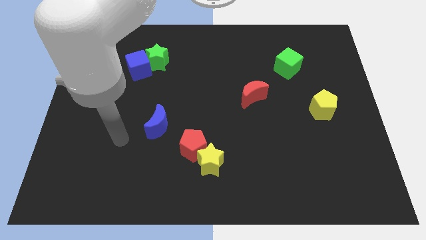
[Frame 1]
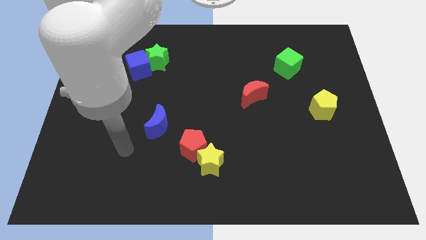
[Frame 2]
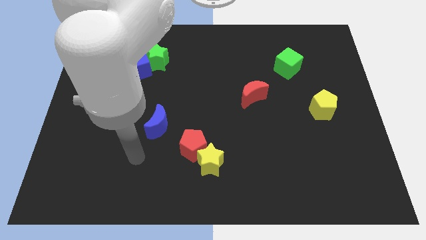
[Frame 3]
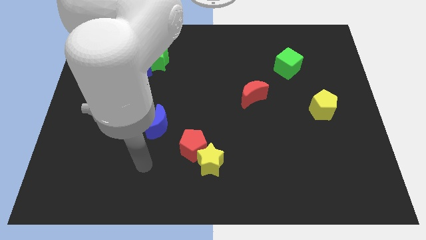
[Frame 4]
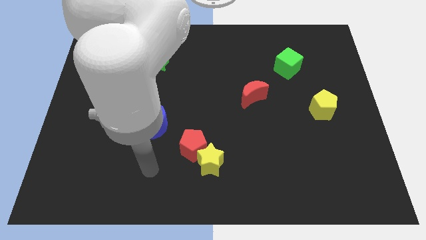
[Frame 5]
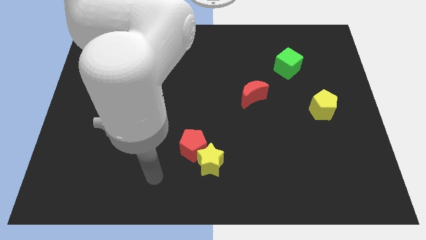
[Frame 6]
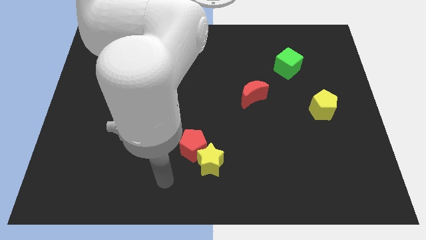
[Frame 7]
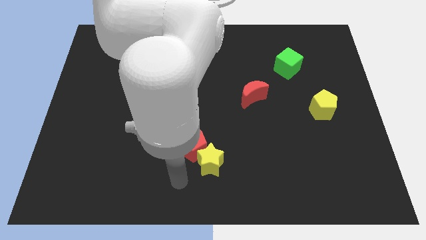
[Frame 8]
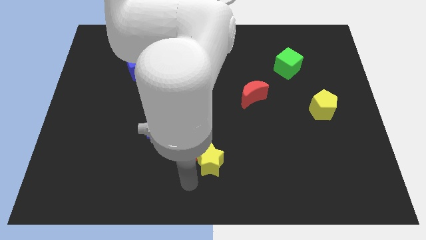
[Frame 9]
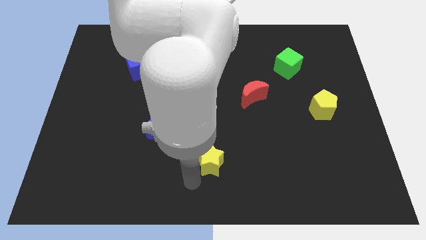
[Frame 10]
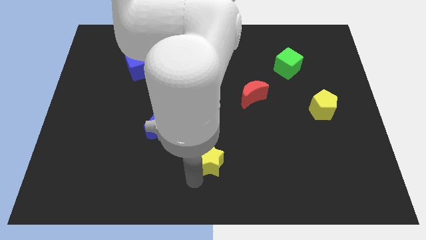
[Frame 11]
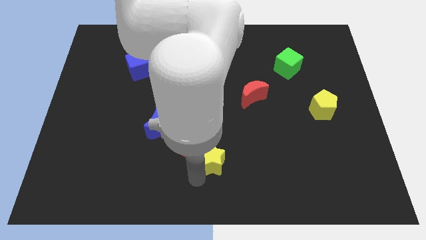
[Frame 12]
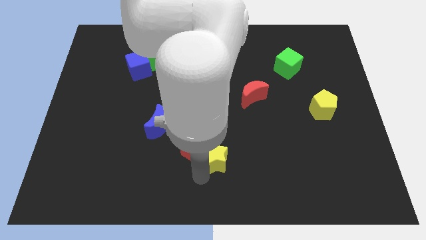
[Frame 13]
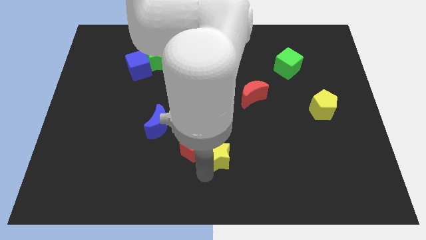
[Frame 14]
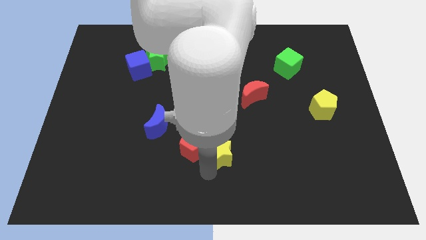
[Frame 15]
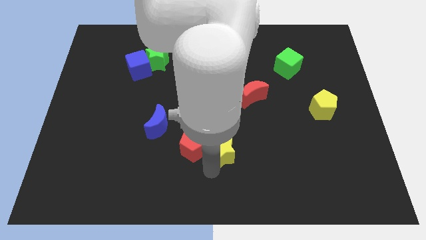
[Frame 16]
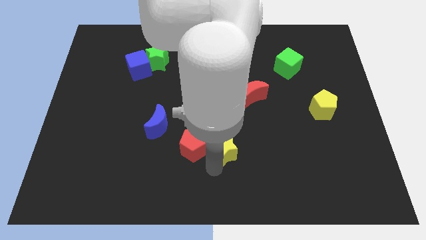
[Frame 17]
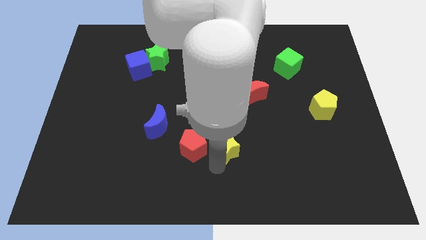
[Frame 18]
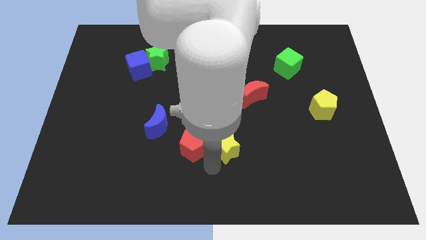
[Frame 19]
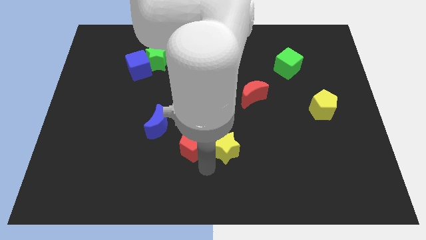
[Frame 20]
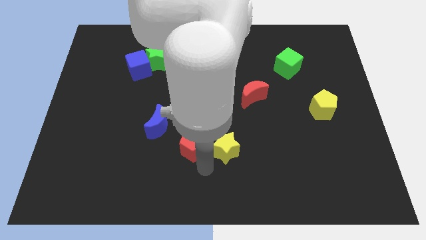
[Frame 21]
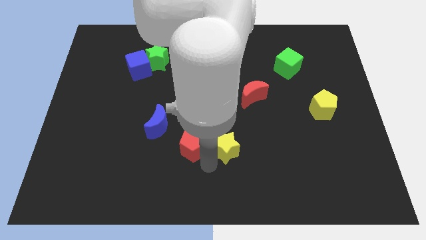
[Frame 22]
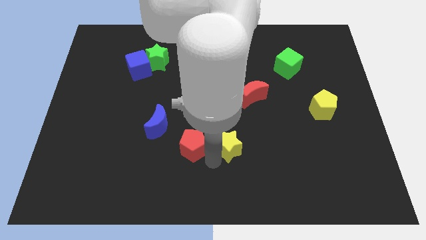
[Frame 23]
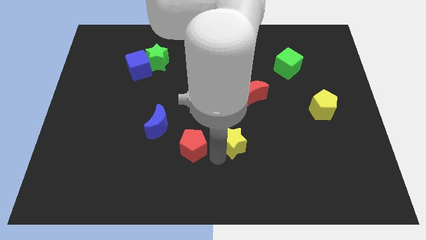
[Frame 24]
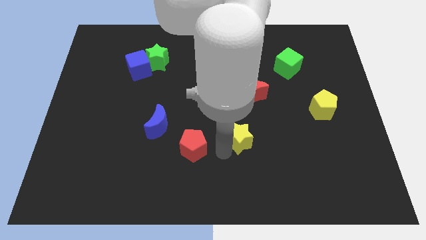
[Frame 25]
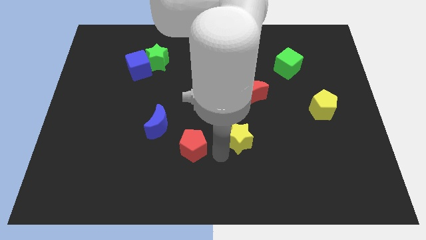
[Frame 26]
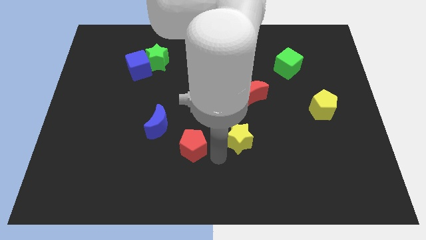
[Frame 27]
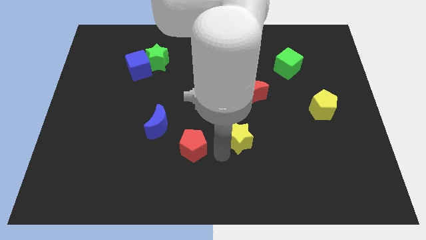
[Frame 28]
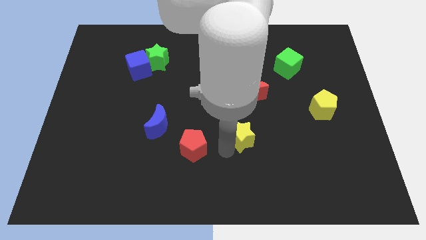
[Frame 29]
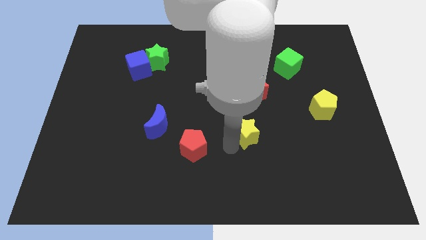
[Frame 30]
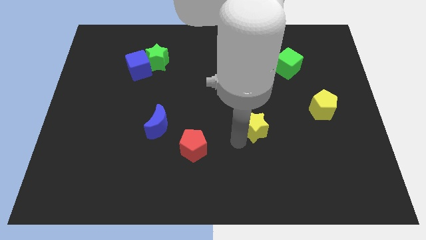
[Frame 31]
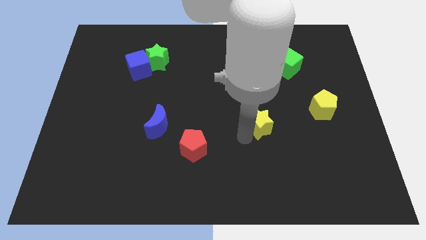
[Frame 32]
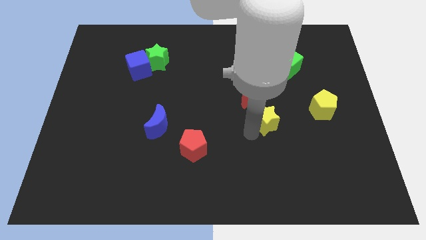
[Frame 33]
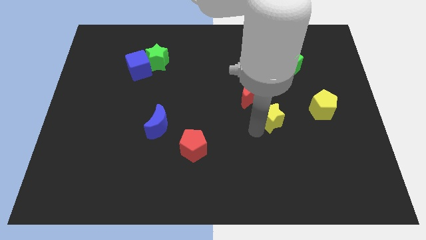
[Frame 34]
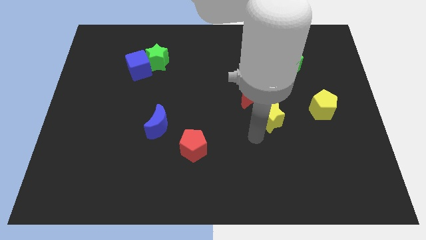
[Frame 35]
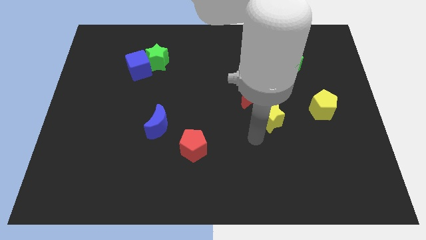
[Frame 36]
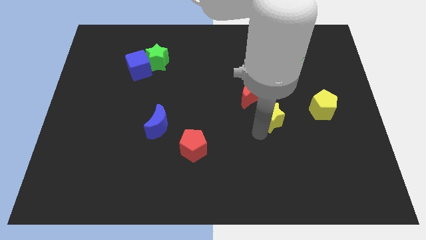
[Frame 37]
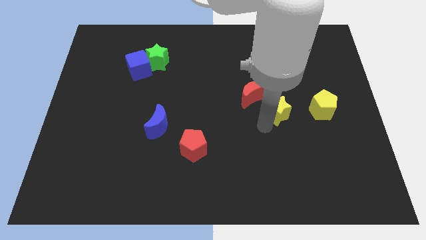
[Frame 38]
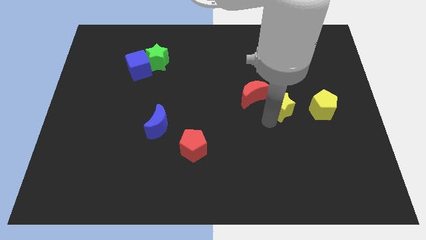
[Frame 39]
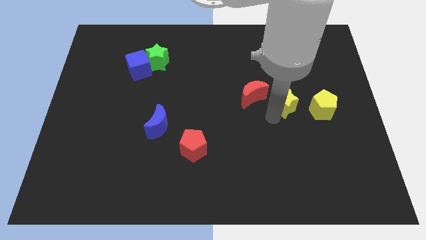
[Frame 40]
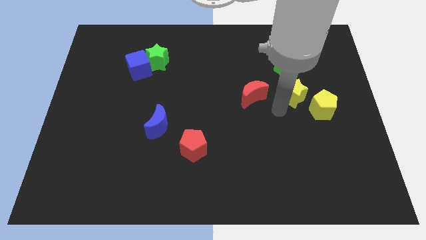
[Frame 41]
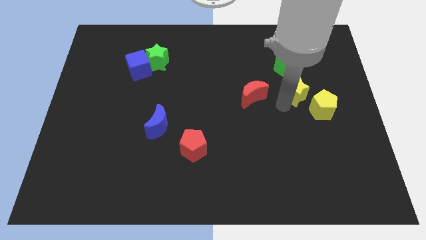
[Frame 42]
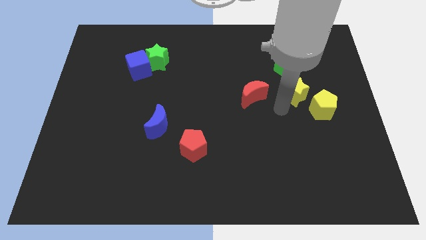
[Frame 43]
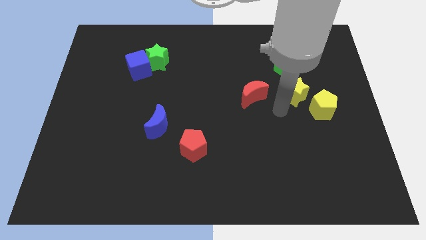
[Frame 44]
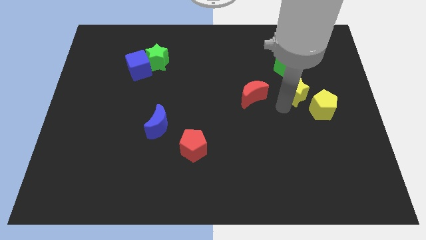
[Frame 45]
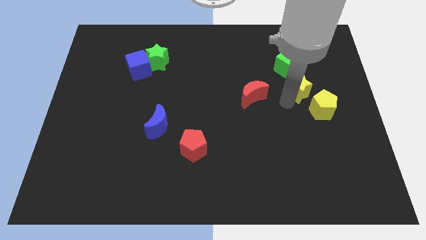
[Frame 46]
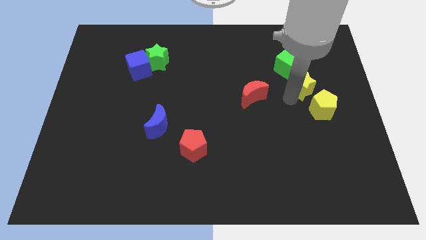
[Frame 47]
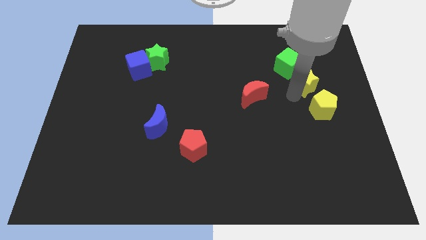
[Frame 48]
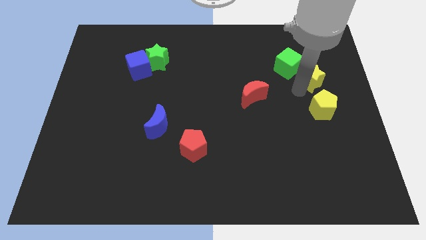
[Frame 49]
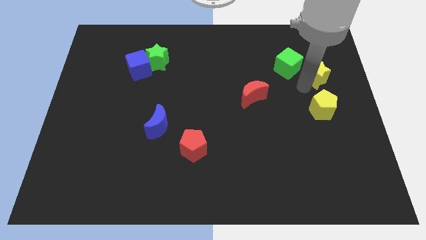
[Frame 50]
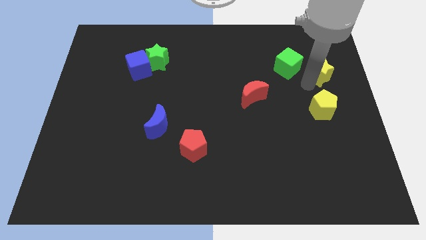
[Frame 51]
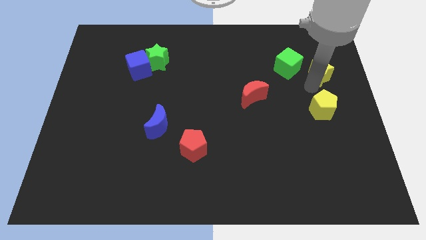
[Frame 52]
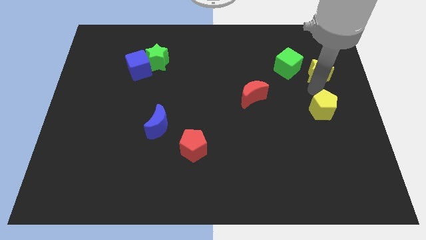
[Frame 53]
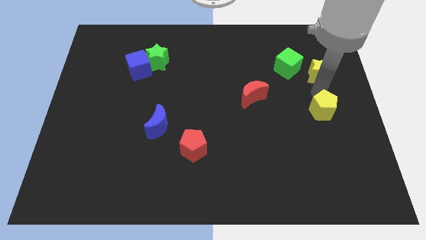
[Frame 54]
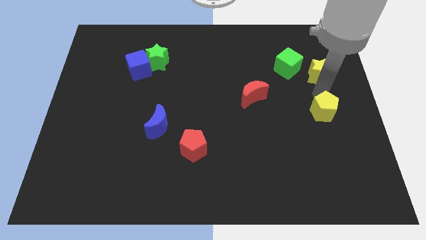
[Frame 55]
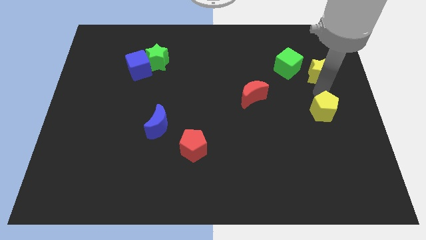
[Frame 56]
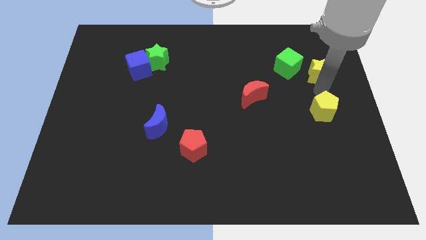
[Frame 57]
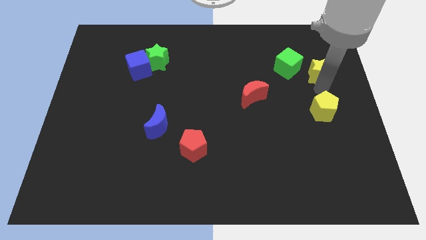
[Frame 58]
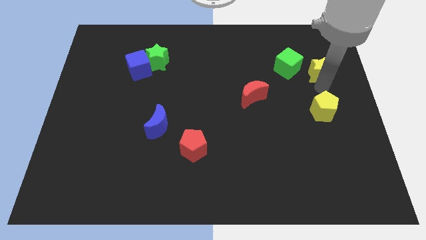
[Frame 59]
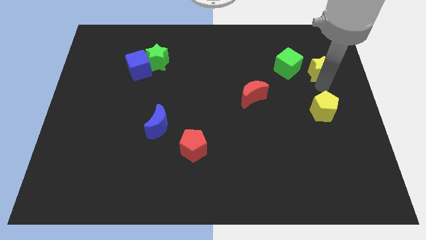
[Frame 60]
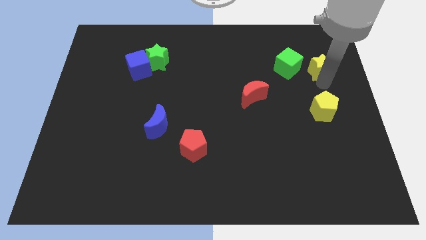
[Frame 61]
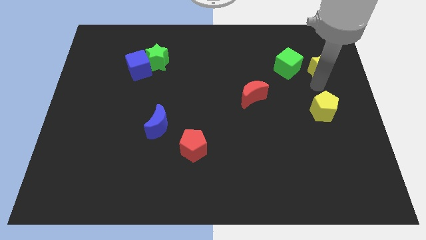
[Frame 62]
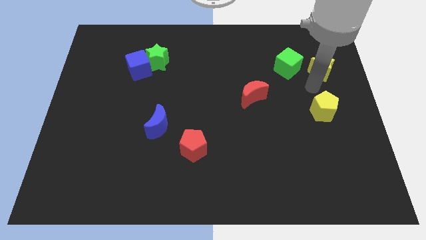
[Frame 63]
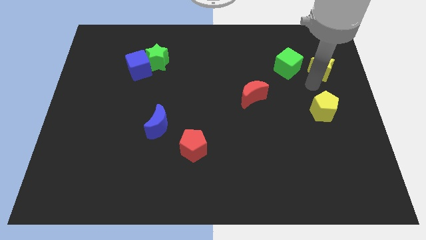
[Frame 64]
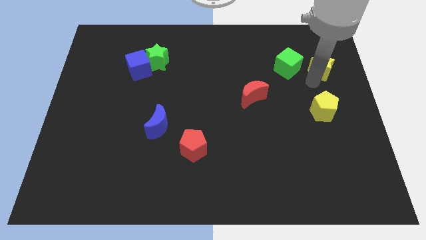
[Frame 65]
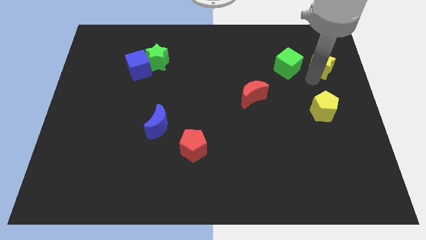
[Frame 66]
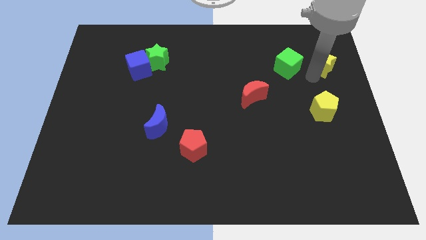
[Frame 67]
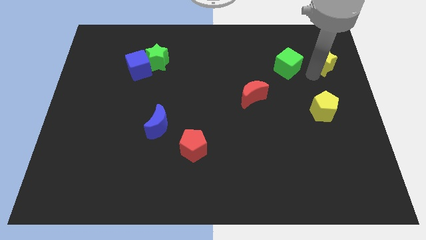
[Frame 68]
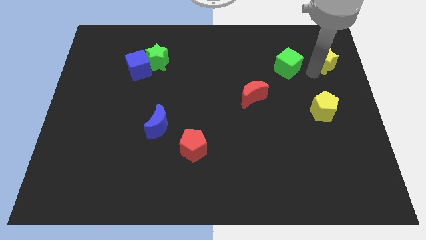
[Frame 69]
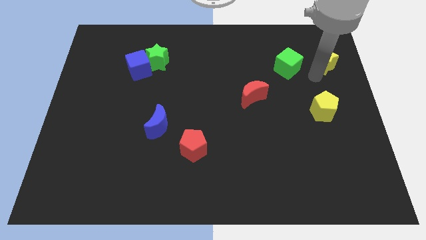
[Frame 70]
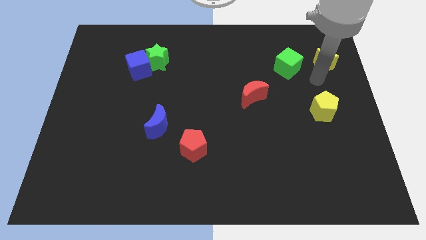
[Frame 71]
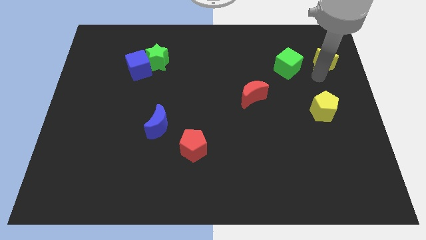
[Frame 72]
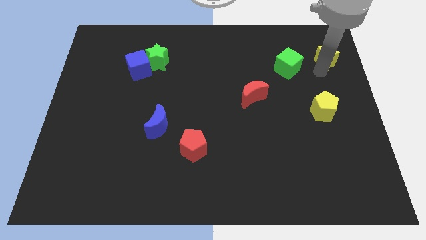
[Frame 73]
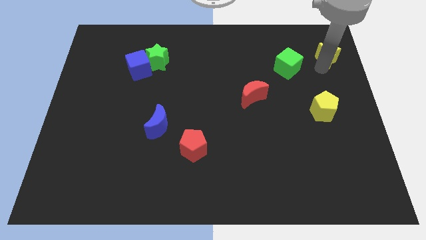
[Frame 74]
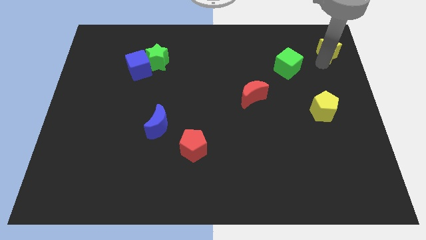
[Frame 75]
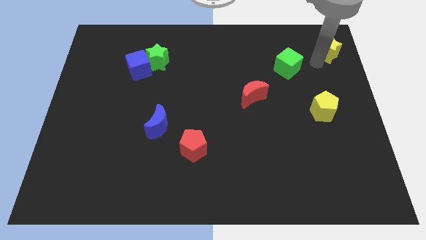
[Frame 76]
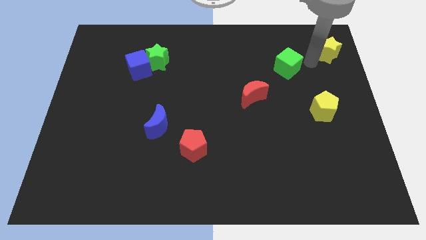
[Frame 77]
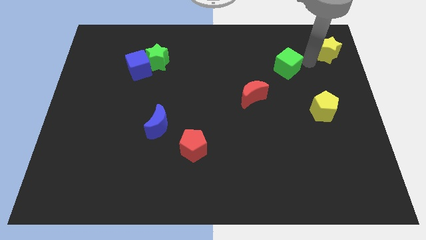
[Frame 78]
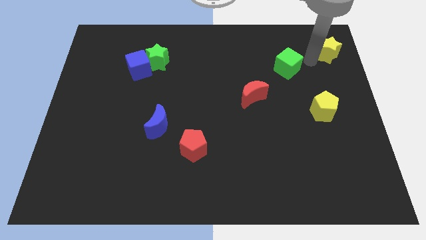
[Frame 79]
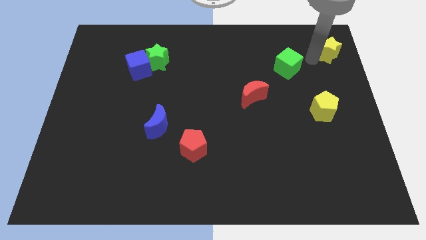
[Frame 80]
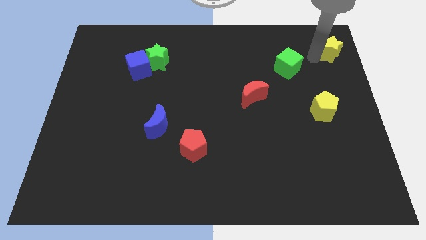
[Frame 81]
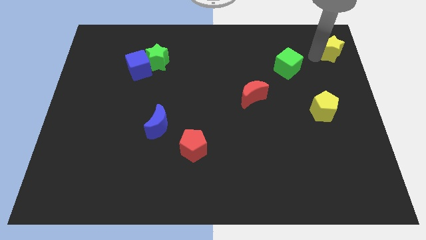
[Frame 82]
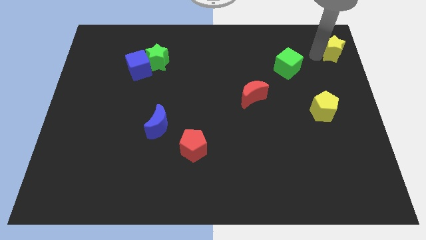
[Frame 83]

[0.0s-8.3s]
put the yellow star to the top right corner
